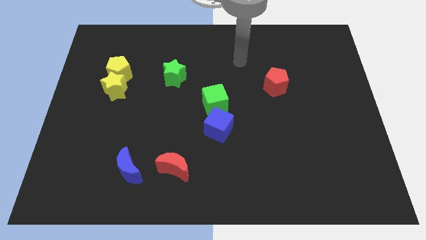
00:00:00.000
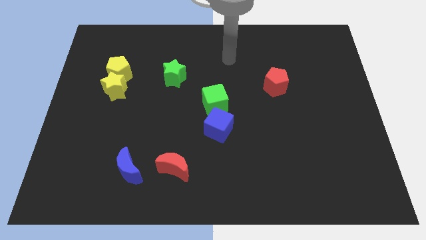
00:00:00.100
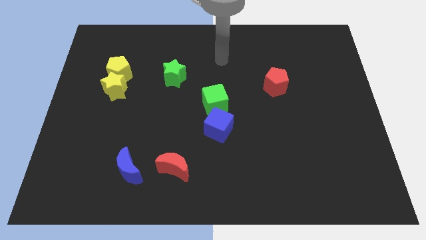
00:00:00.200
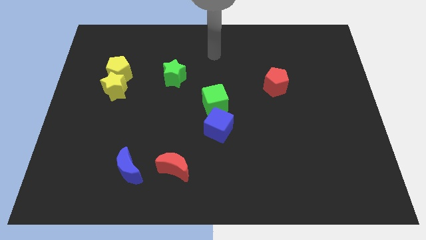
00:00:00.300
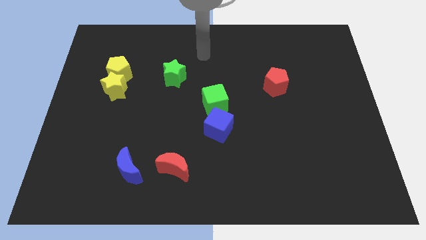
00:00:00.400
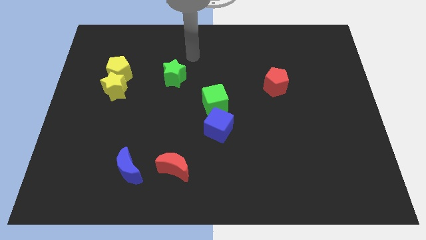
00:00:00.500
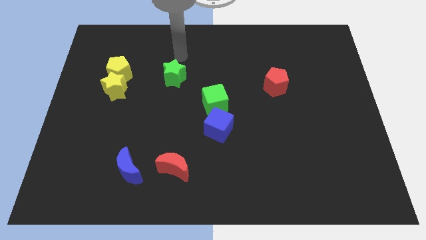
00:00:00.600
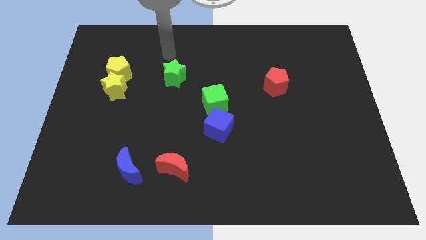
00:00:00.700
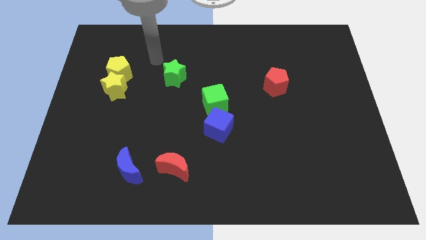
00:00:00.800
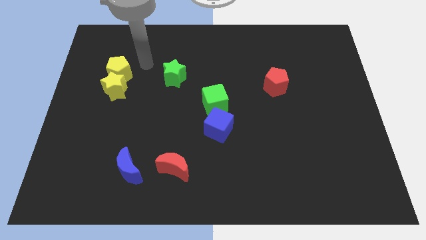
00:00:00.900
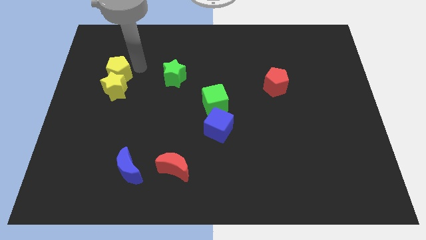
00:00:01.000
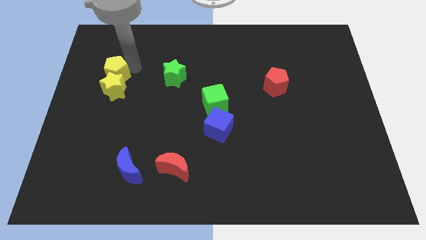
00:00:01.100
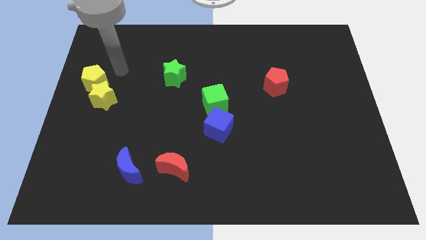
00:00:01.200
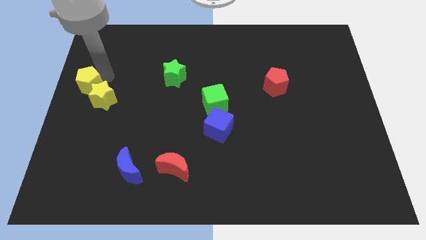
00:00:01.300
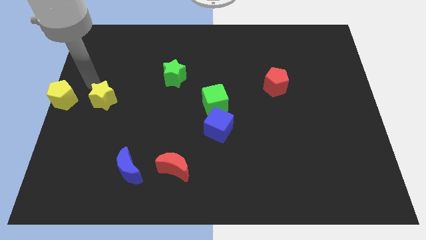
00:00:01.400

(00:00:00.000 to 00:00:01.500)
separate the yellow star from the yellow pentagon

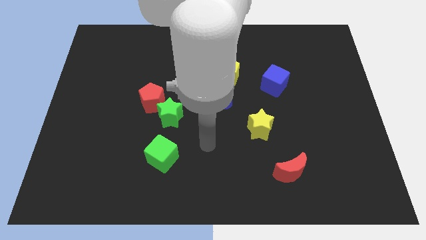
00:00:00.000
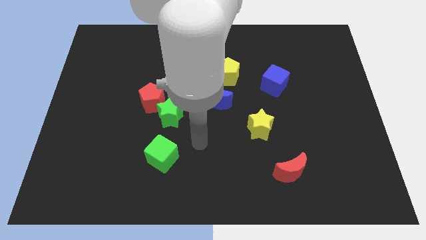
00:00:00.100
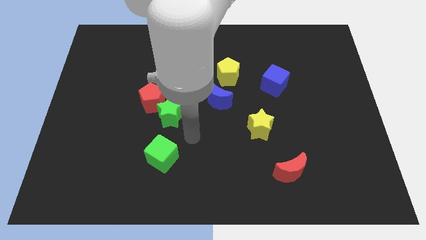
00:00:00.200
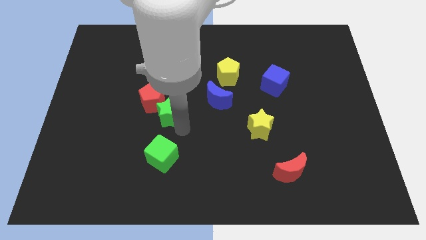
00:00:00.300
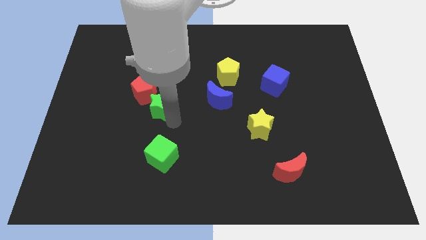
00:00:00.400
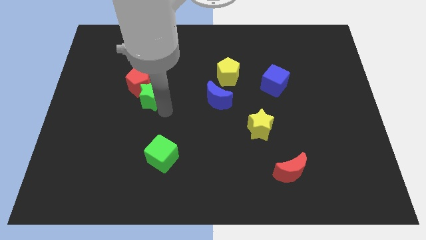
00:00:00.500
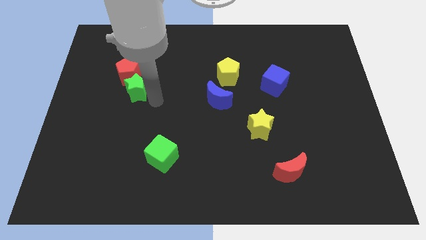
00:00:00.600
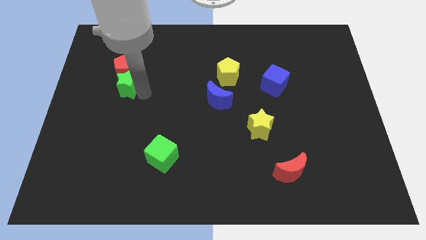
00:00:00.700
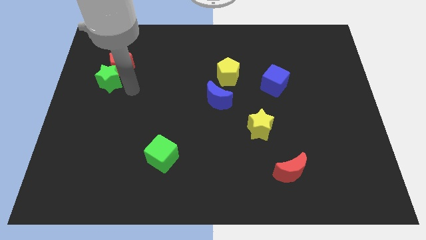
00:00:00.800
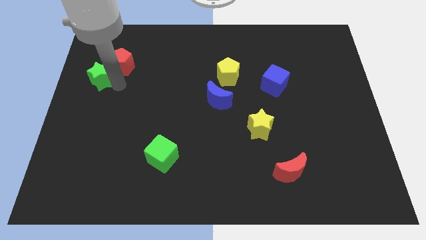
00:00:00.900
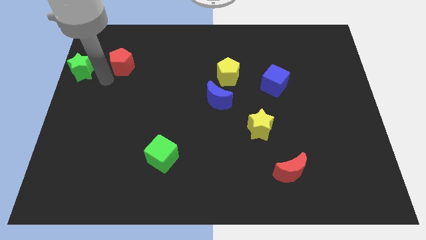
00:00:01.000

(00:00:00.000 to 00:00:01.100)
pull the red pentagon apart from the green star

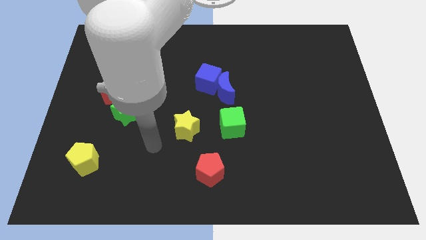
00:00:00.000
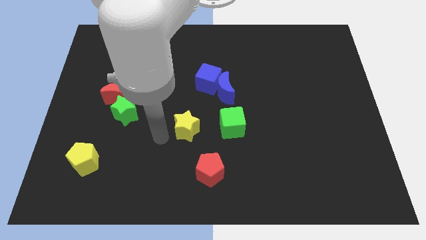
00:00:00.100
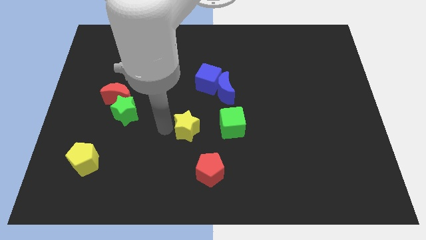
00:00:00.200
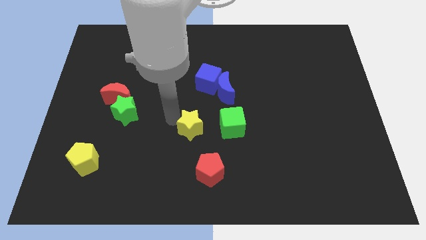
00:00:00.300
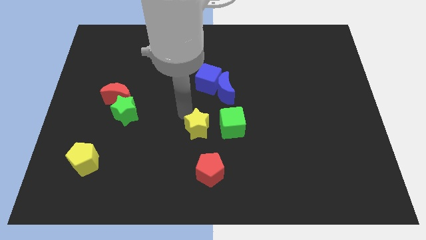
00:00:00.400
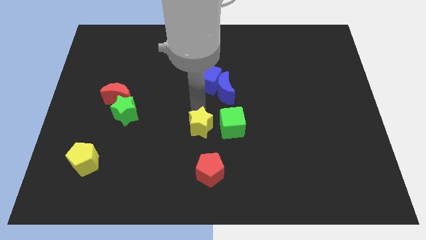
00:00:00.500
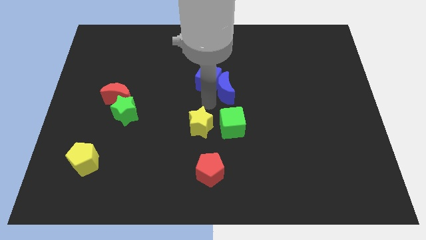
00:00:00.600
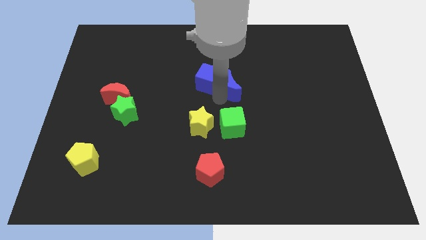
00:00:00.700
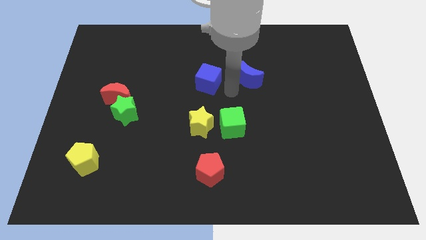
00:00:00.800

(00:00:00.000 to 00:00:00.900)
separate the blue cube from the blue moon

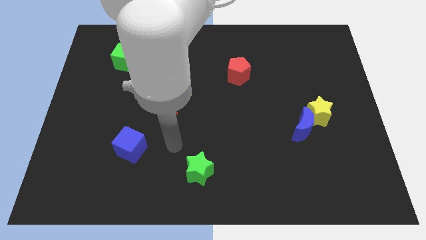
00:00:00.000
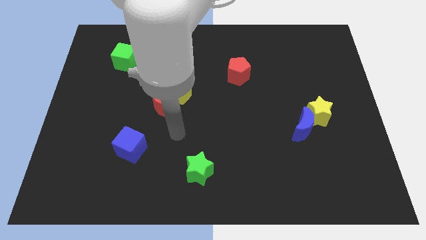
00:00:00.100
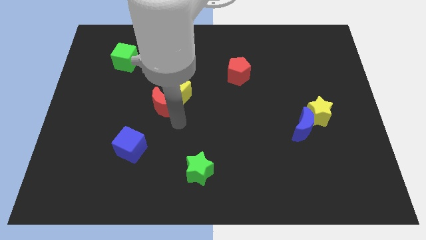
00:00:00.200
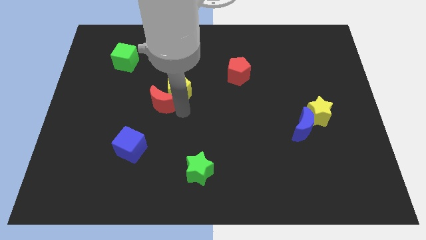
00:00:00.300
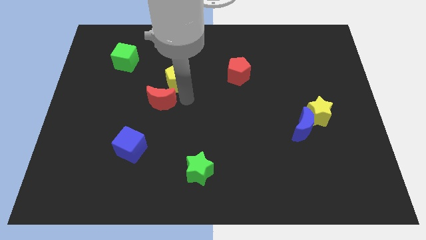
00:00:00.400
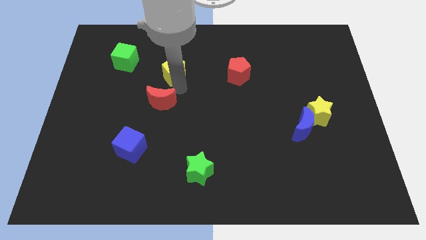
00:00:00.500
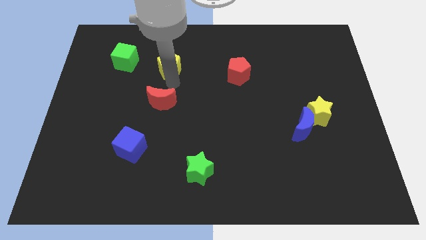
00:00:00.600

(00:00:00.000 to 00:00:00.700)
move the red moon away from the yellow pentagon

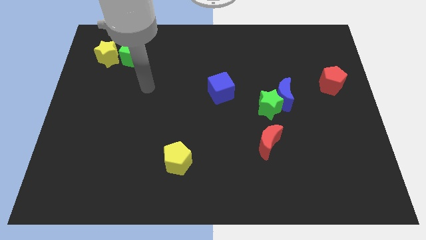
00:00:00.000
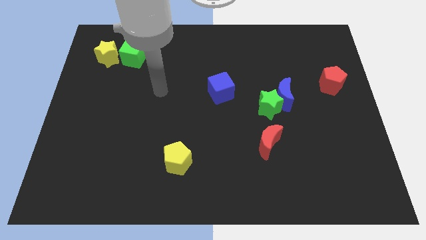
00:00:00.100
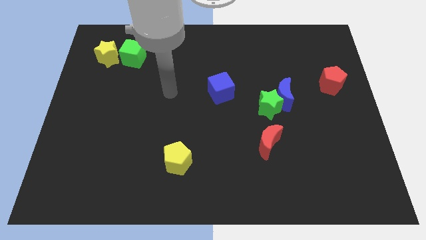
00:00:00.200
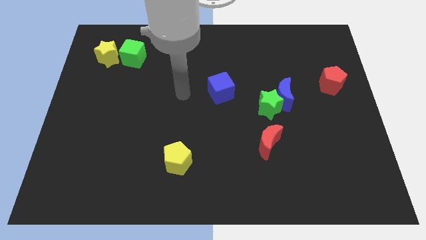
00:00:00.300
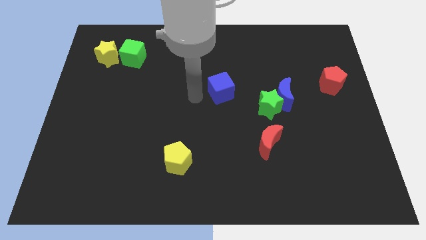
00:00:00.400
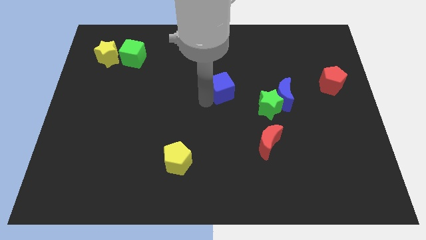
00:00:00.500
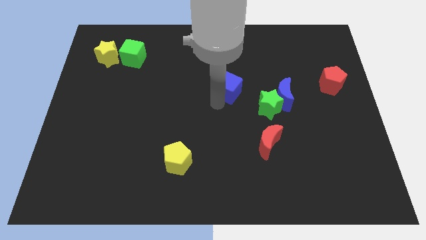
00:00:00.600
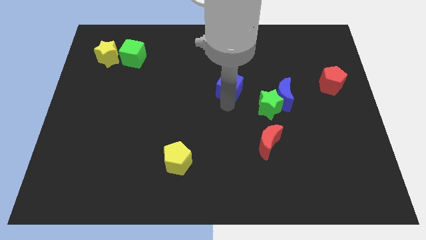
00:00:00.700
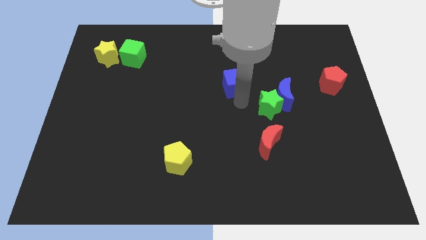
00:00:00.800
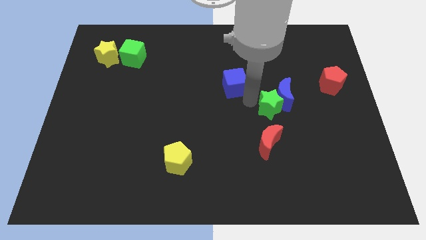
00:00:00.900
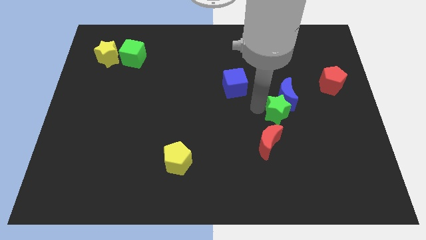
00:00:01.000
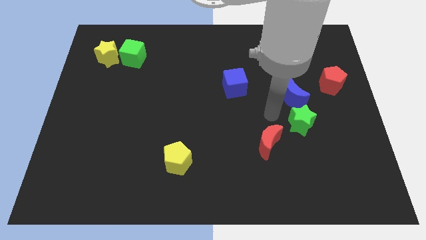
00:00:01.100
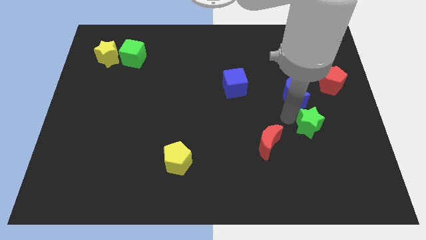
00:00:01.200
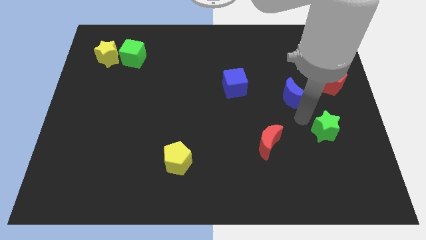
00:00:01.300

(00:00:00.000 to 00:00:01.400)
separate the blue moon from the green star

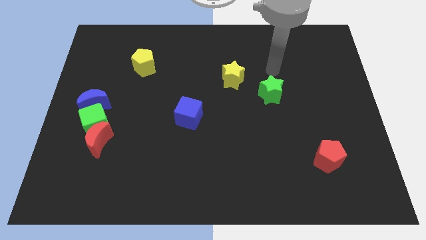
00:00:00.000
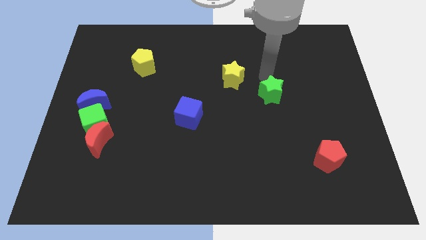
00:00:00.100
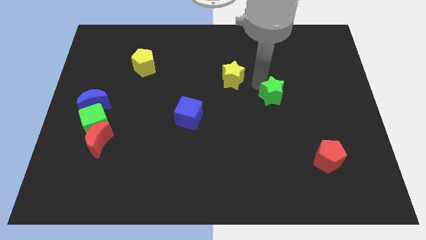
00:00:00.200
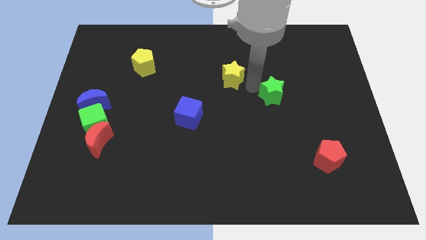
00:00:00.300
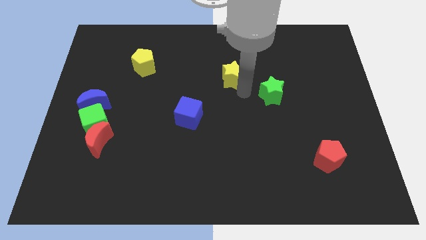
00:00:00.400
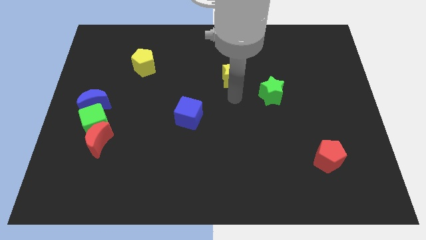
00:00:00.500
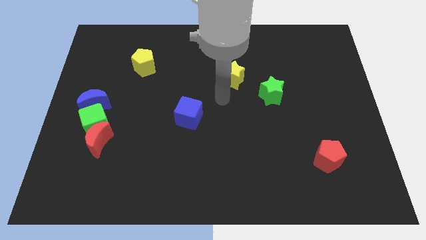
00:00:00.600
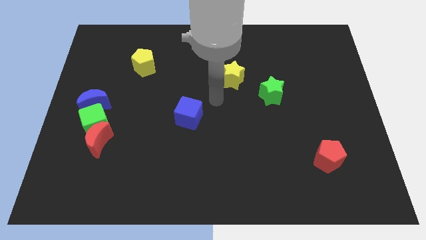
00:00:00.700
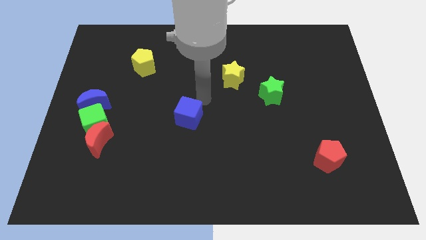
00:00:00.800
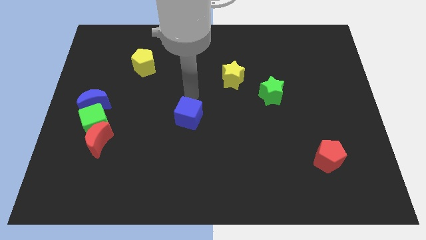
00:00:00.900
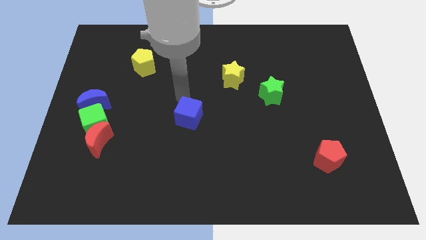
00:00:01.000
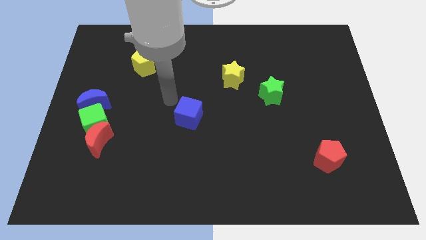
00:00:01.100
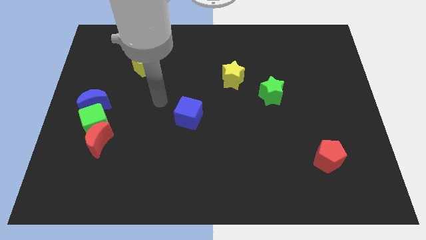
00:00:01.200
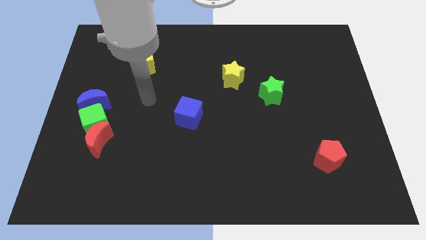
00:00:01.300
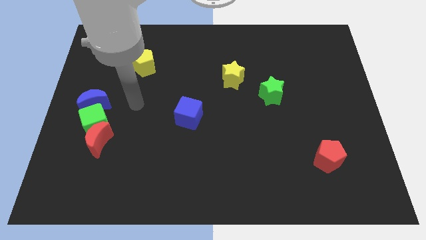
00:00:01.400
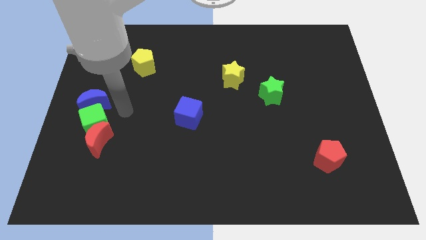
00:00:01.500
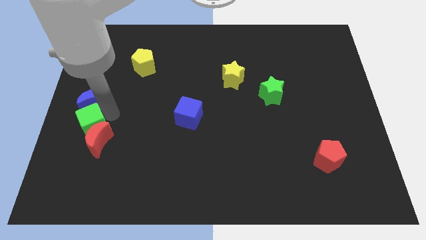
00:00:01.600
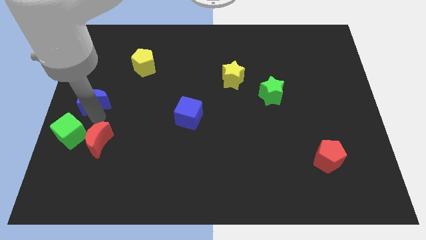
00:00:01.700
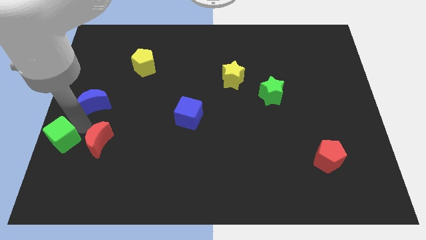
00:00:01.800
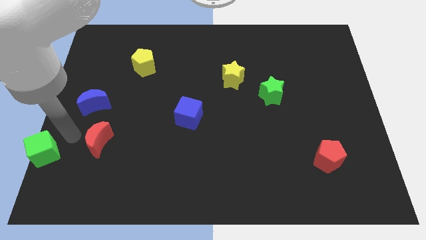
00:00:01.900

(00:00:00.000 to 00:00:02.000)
separate the red moon from the green cube

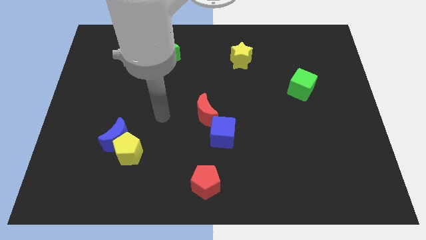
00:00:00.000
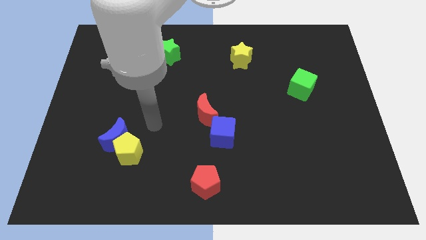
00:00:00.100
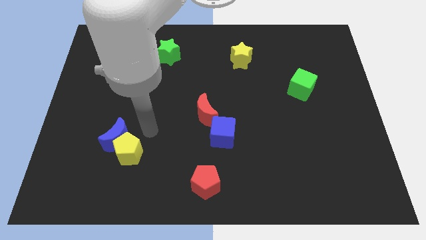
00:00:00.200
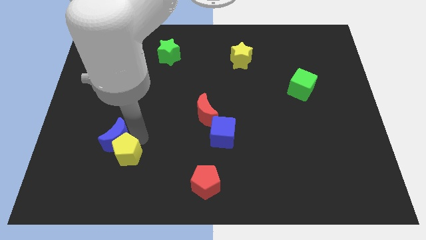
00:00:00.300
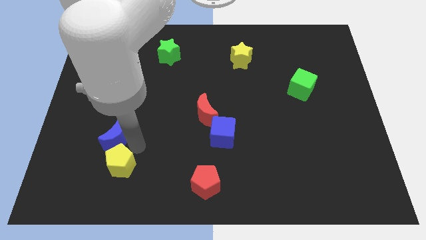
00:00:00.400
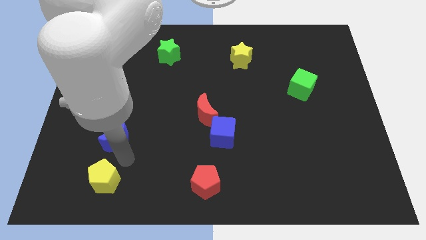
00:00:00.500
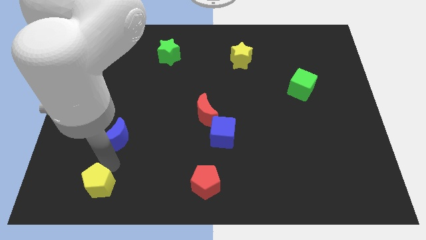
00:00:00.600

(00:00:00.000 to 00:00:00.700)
pull the blue moon apart from the yellow pentagon

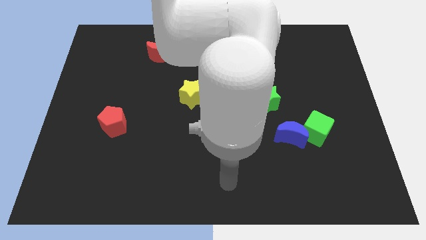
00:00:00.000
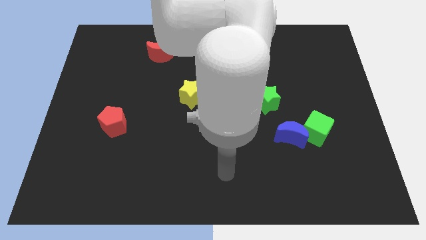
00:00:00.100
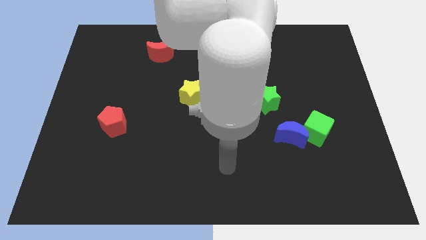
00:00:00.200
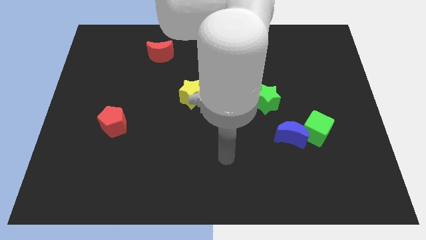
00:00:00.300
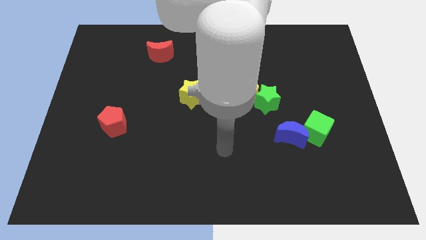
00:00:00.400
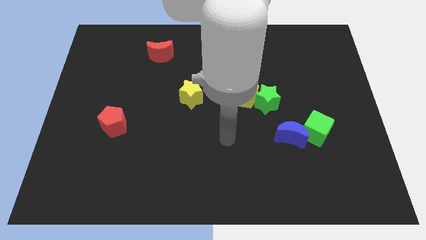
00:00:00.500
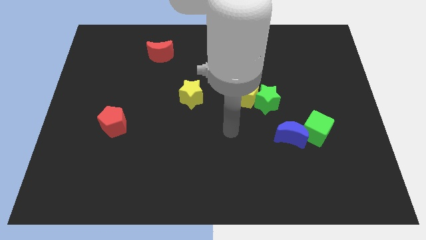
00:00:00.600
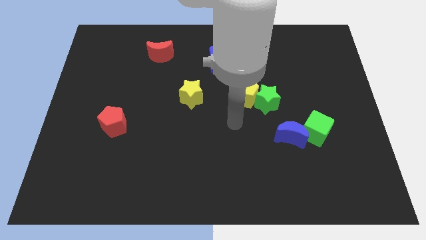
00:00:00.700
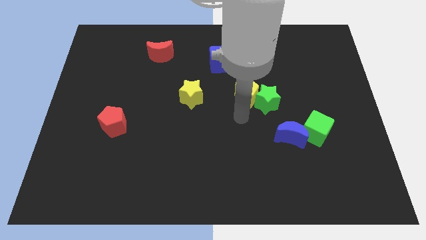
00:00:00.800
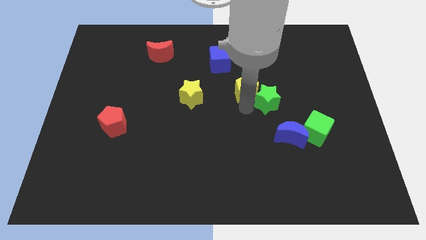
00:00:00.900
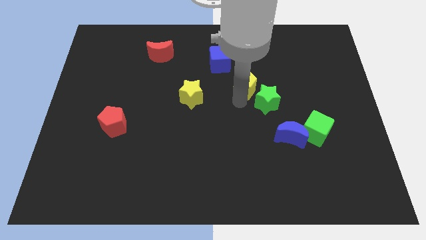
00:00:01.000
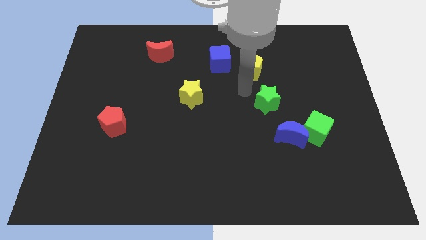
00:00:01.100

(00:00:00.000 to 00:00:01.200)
pull the green star apart from the yellow pentagon

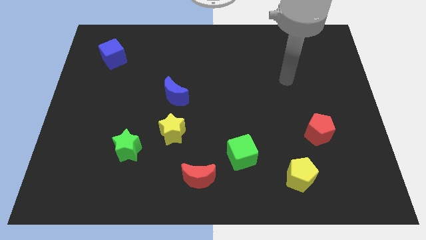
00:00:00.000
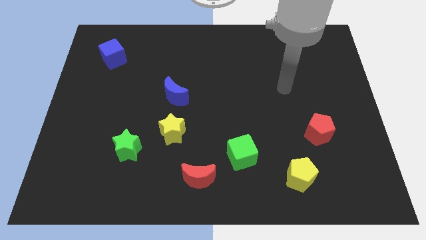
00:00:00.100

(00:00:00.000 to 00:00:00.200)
move the green star away from the yellow star
